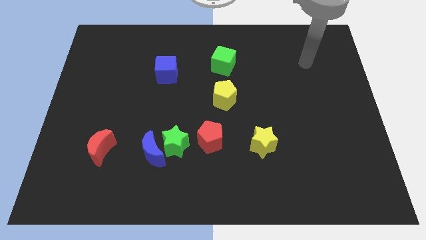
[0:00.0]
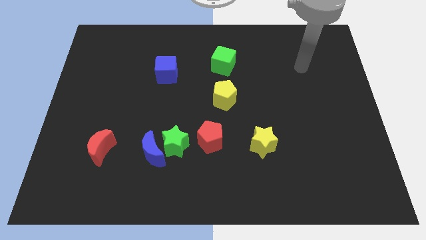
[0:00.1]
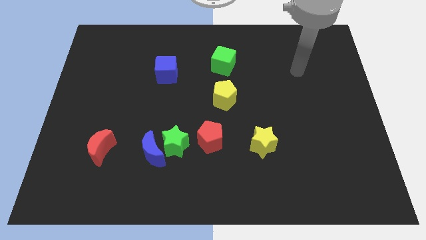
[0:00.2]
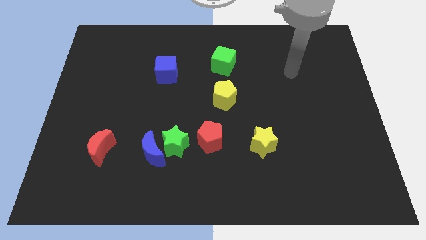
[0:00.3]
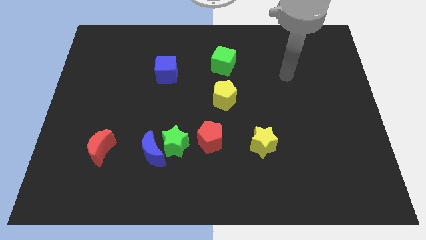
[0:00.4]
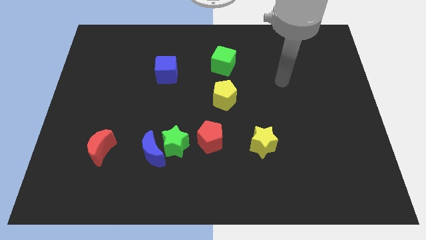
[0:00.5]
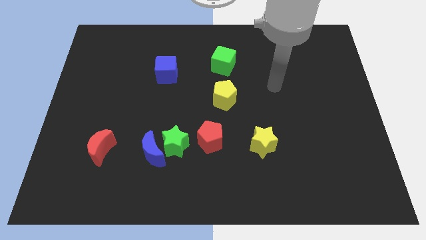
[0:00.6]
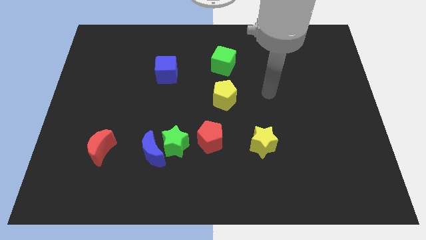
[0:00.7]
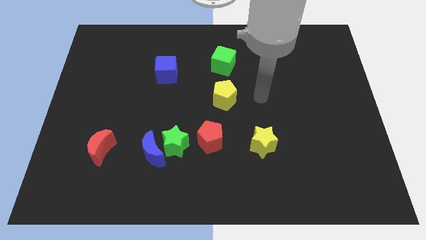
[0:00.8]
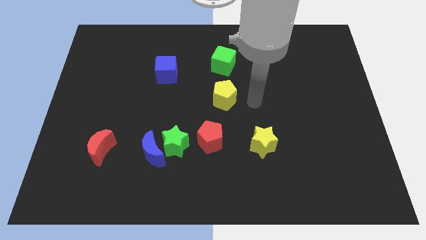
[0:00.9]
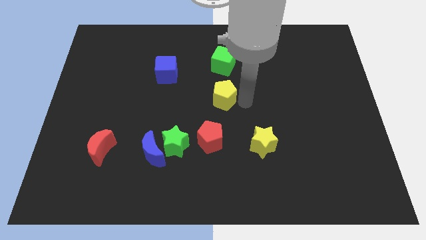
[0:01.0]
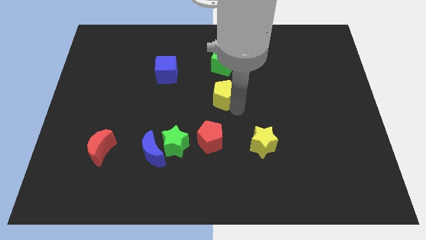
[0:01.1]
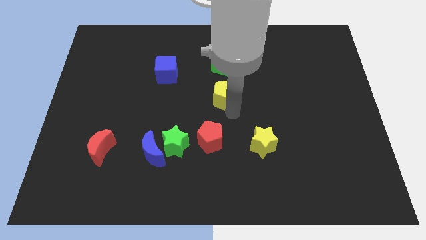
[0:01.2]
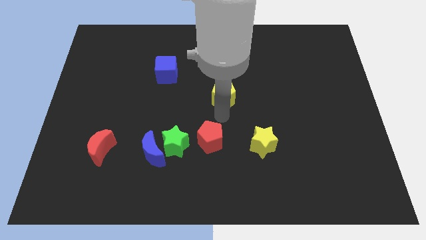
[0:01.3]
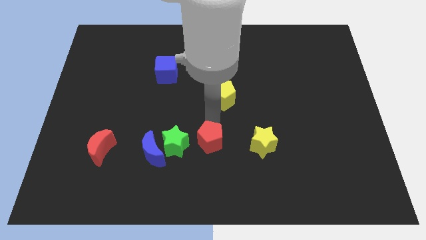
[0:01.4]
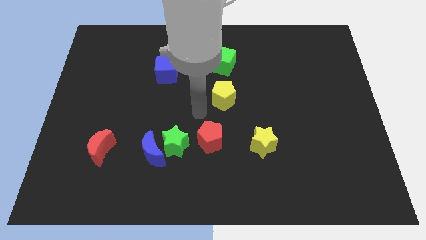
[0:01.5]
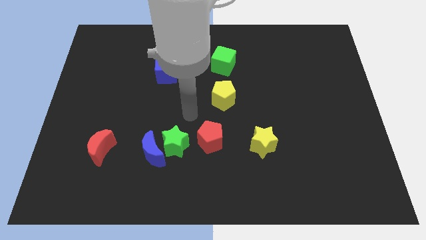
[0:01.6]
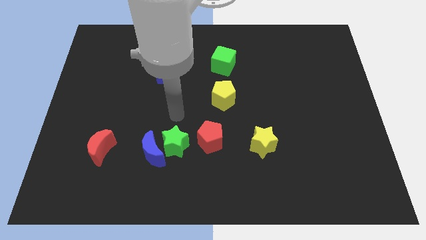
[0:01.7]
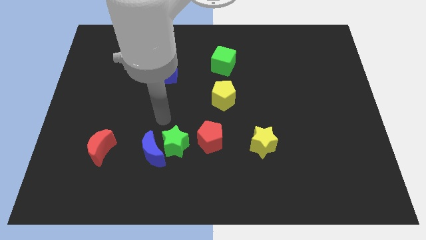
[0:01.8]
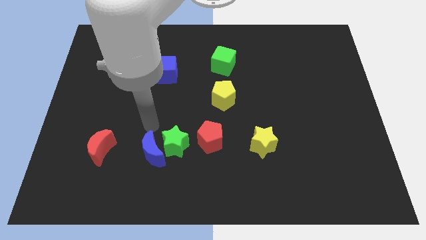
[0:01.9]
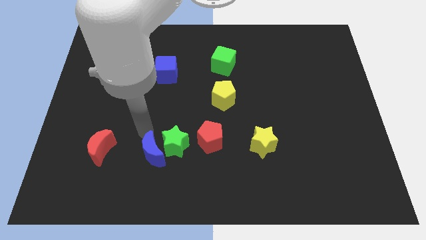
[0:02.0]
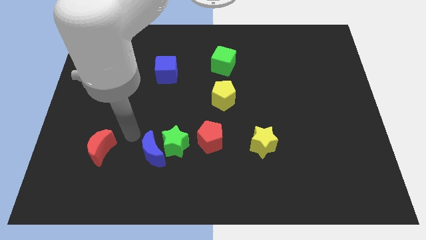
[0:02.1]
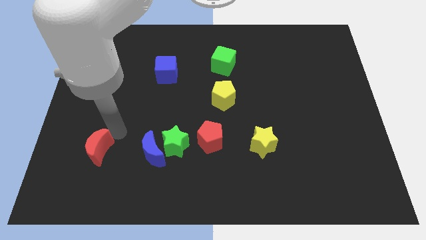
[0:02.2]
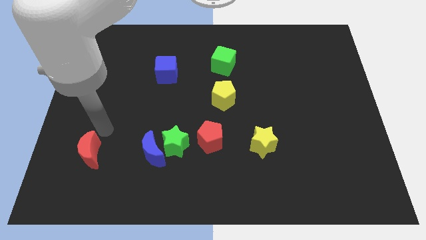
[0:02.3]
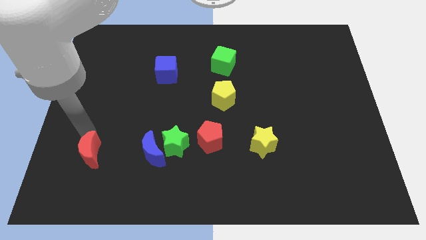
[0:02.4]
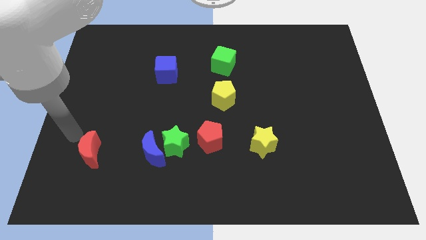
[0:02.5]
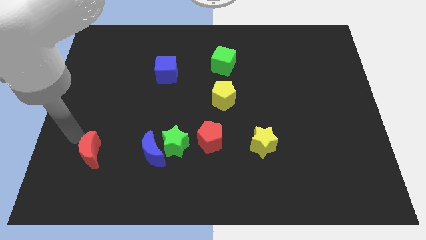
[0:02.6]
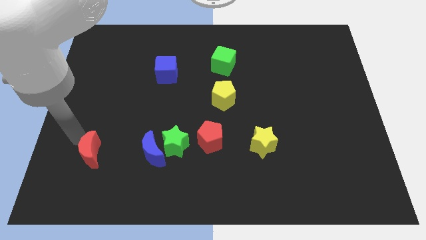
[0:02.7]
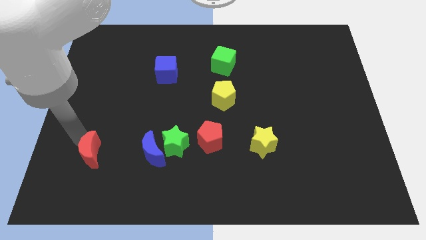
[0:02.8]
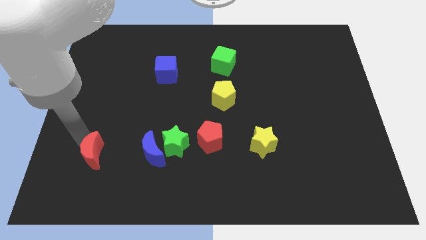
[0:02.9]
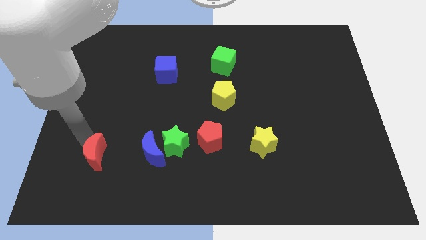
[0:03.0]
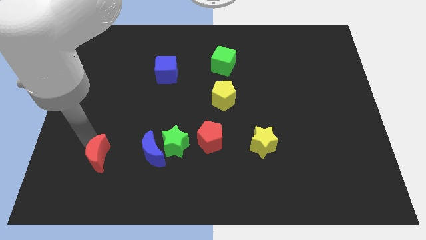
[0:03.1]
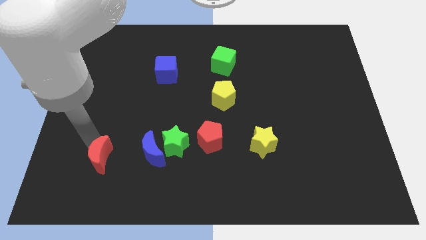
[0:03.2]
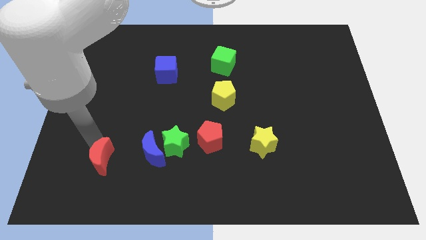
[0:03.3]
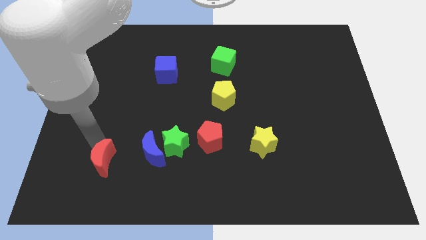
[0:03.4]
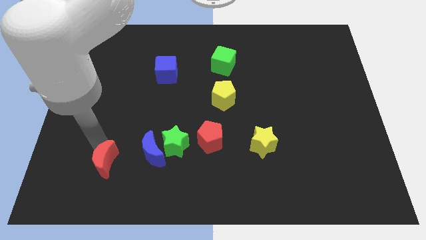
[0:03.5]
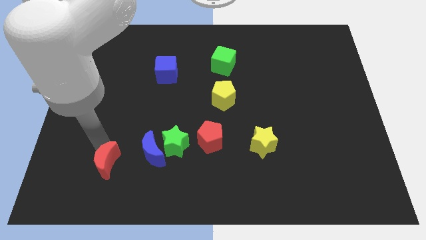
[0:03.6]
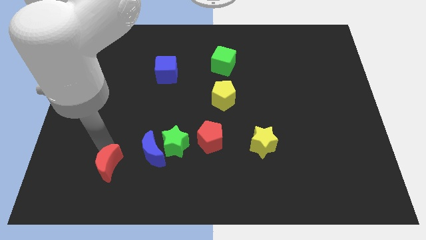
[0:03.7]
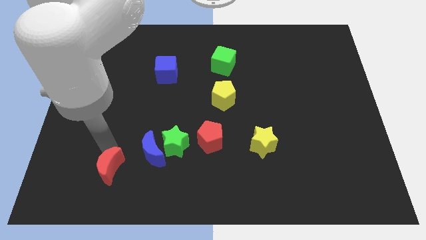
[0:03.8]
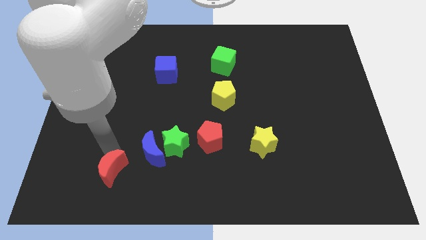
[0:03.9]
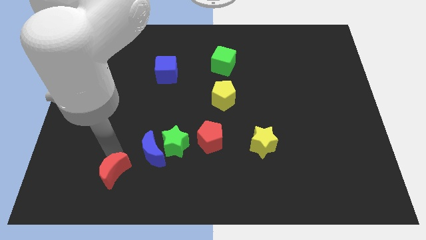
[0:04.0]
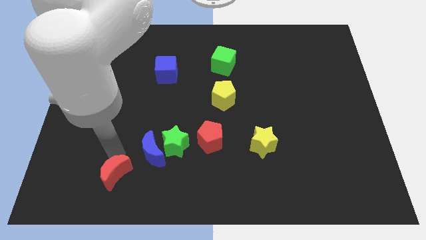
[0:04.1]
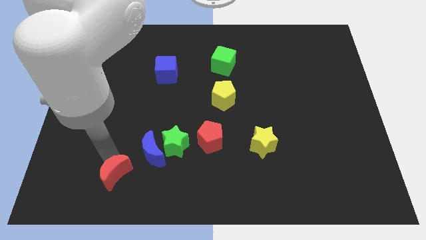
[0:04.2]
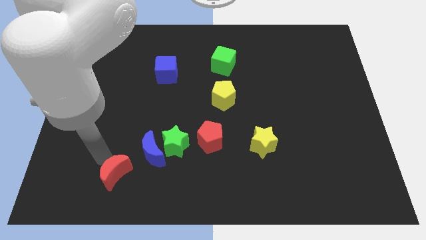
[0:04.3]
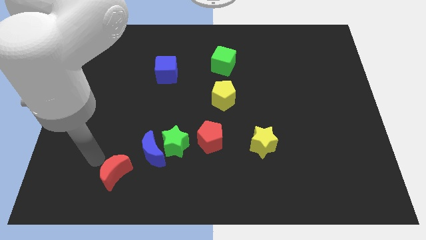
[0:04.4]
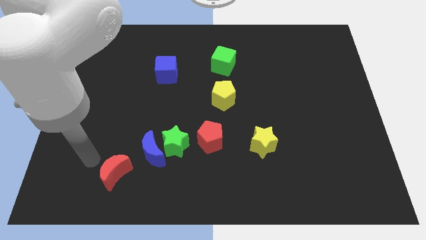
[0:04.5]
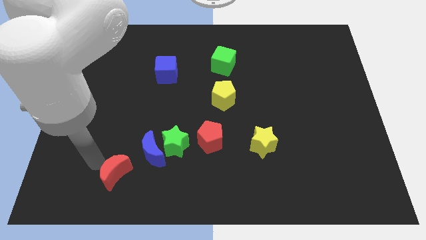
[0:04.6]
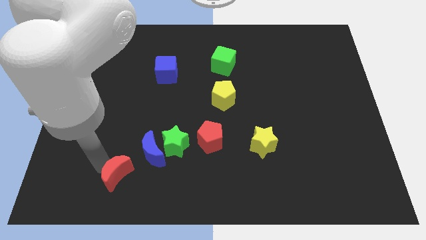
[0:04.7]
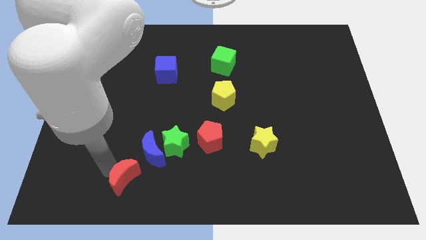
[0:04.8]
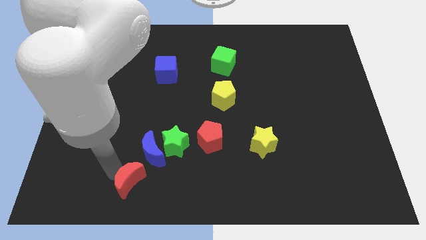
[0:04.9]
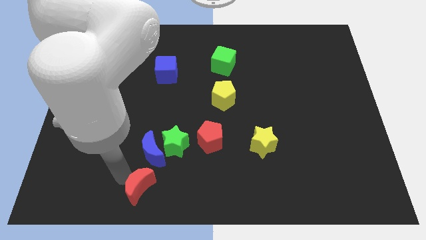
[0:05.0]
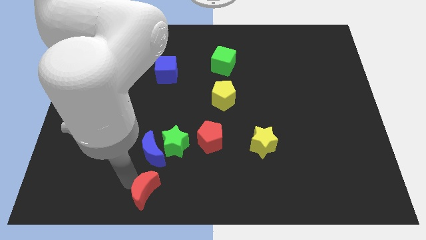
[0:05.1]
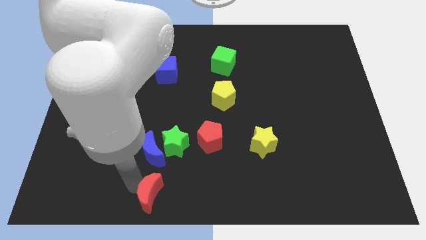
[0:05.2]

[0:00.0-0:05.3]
slide the red moon to the bottom
